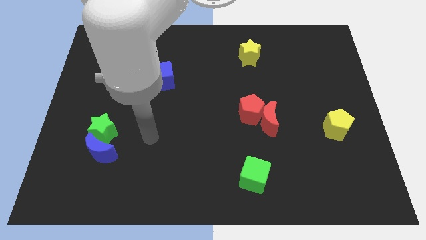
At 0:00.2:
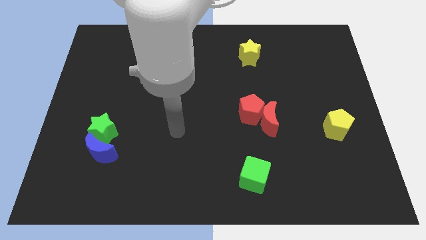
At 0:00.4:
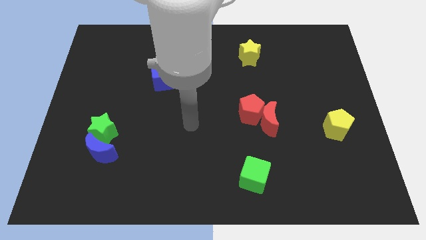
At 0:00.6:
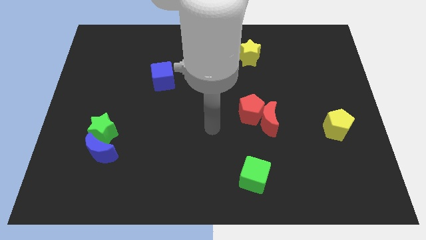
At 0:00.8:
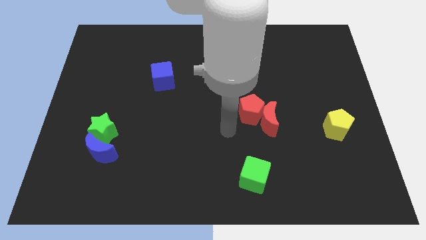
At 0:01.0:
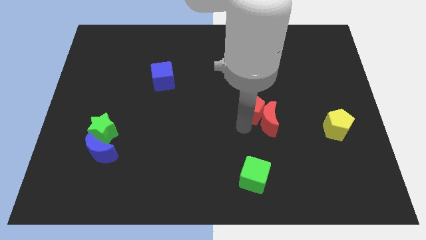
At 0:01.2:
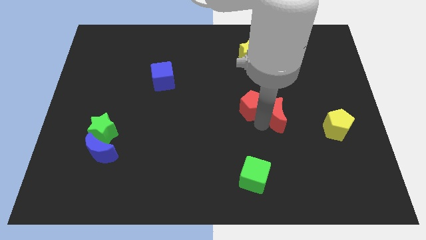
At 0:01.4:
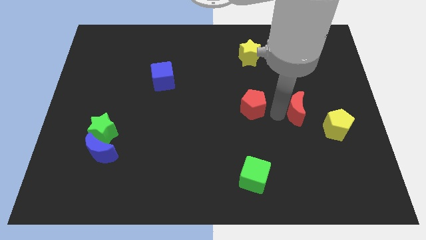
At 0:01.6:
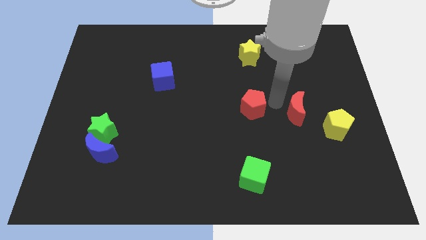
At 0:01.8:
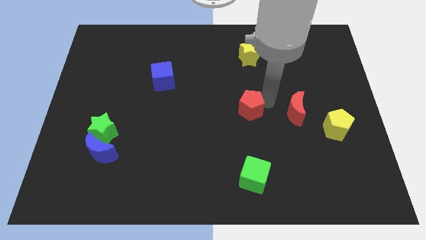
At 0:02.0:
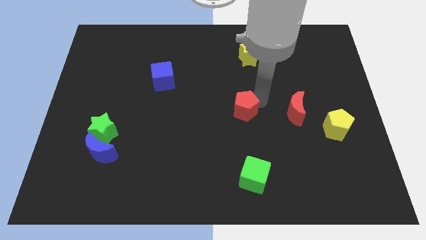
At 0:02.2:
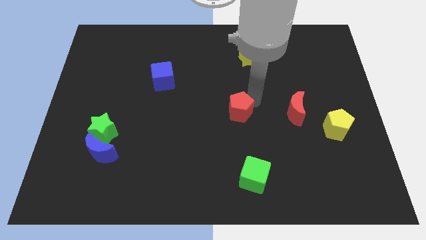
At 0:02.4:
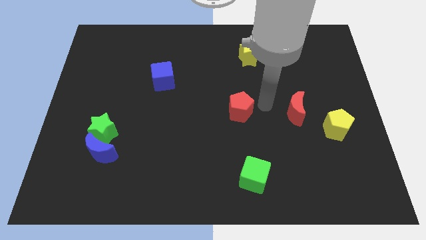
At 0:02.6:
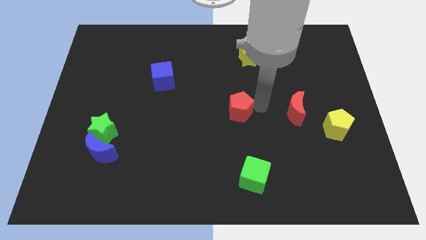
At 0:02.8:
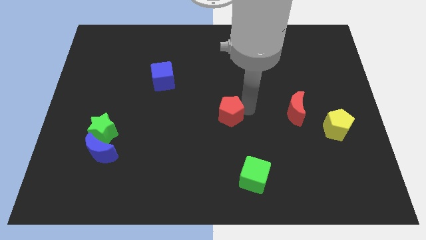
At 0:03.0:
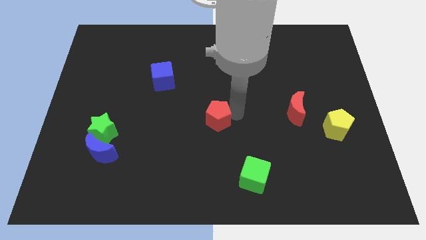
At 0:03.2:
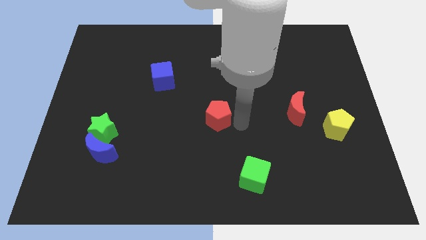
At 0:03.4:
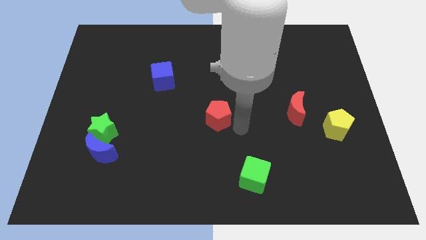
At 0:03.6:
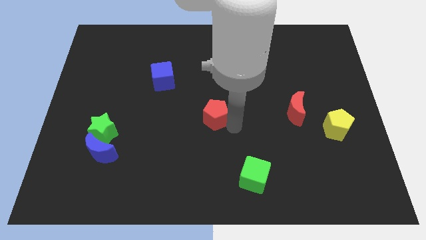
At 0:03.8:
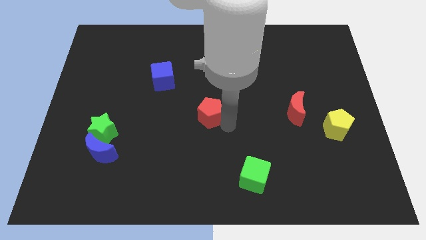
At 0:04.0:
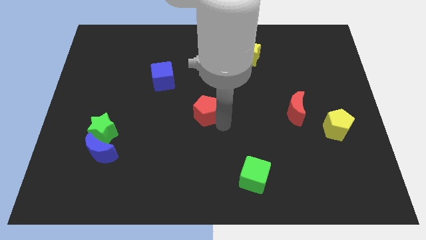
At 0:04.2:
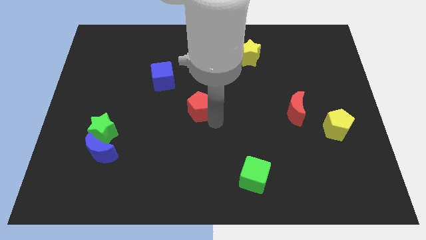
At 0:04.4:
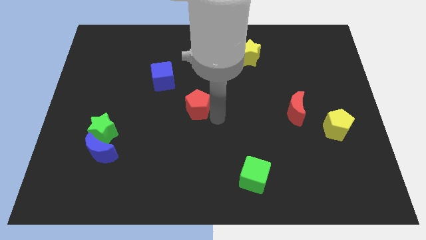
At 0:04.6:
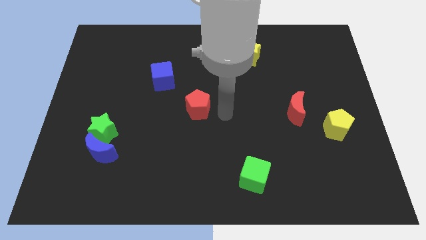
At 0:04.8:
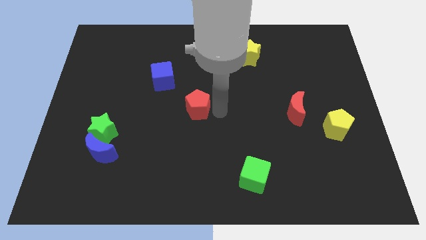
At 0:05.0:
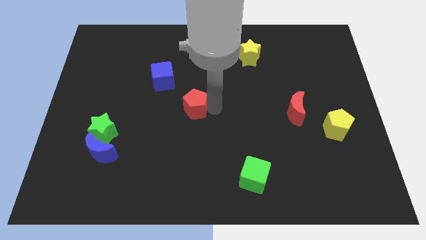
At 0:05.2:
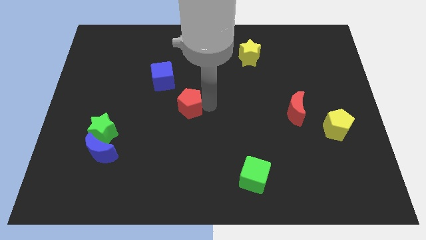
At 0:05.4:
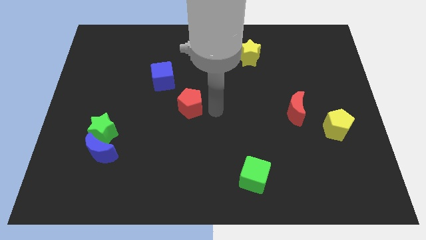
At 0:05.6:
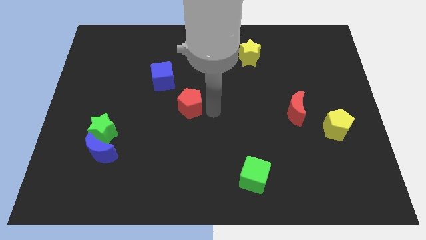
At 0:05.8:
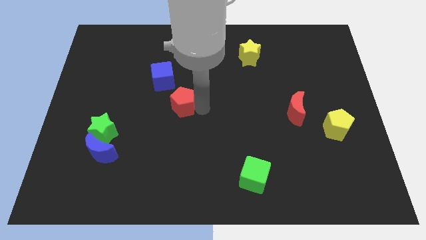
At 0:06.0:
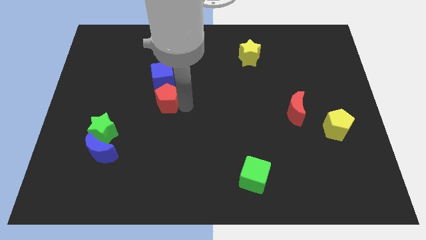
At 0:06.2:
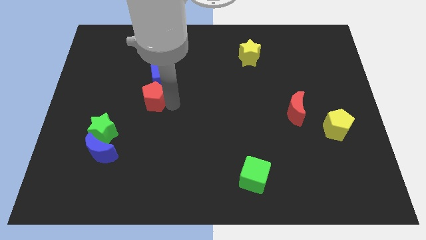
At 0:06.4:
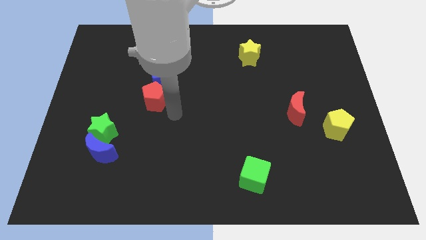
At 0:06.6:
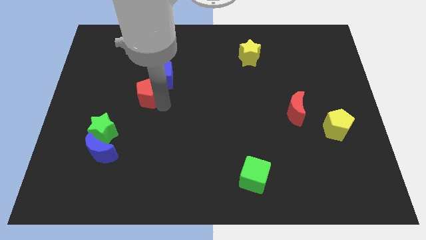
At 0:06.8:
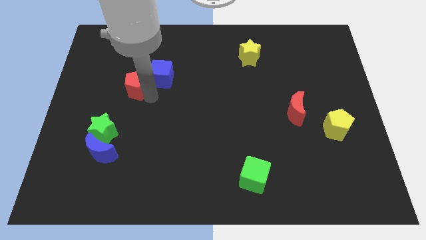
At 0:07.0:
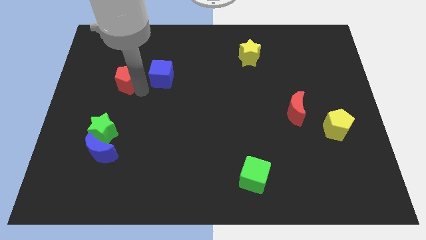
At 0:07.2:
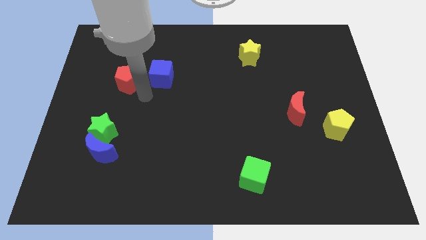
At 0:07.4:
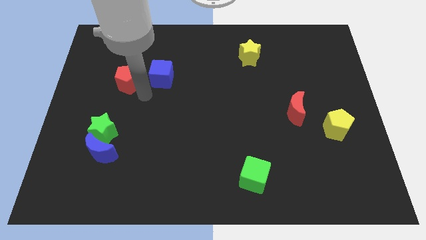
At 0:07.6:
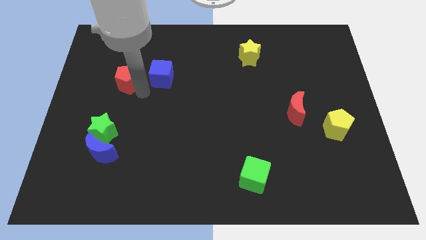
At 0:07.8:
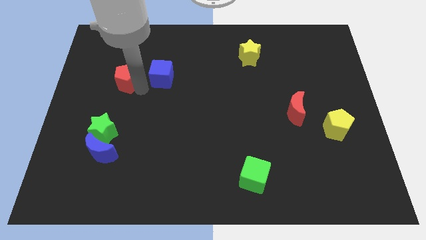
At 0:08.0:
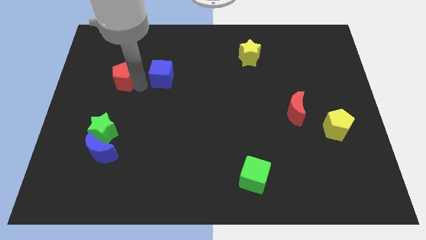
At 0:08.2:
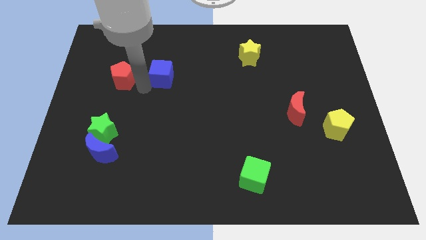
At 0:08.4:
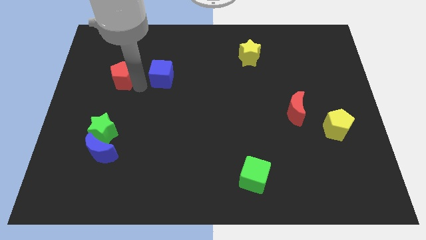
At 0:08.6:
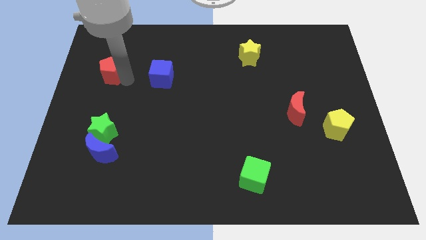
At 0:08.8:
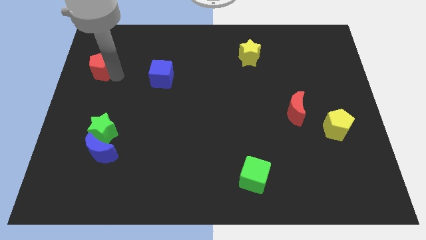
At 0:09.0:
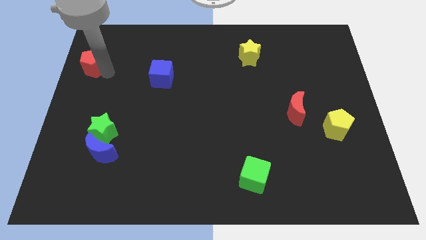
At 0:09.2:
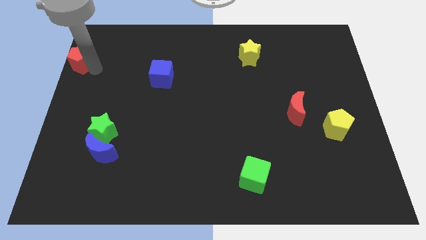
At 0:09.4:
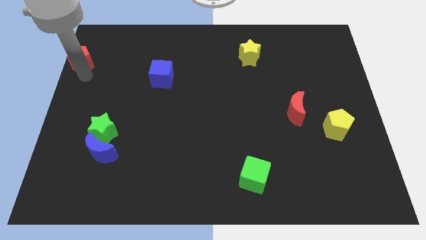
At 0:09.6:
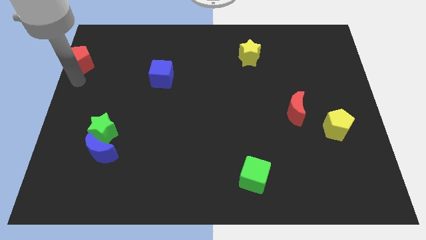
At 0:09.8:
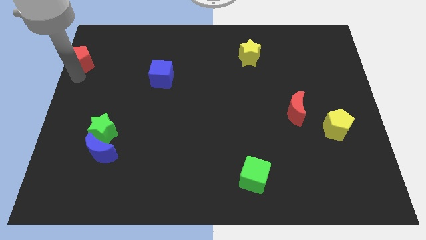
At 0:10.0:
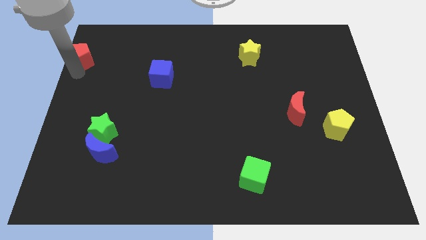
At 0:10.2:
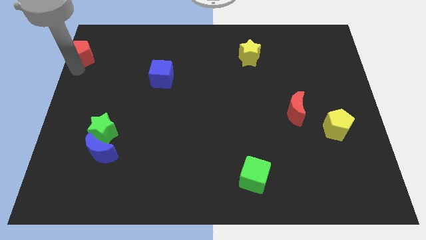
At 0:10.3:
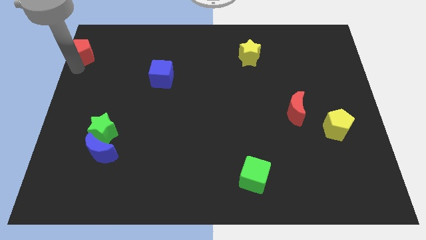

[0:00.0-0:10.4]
slide the red pentagon to the top left corner

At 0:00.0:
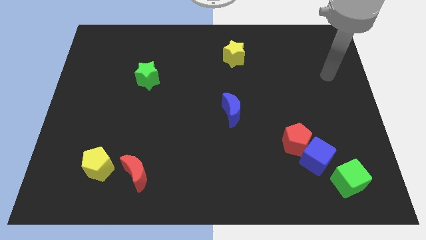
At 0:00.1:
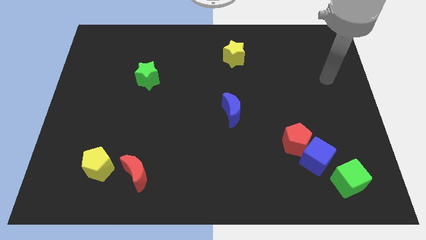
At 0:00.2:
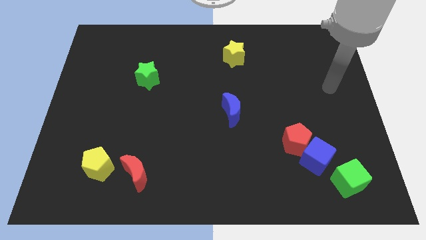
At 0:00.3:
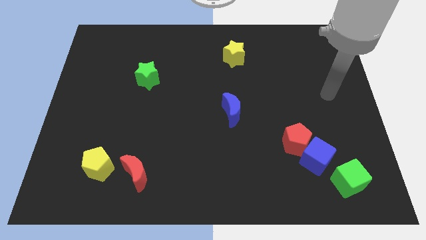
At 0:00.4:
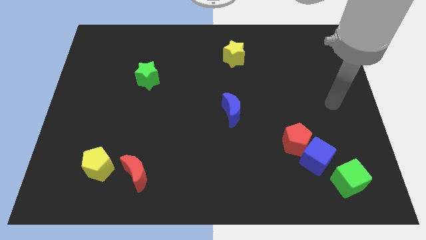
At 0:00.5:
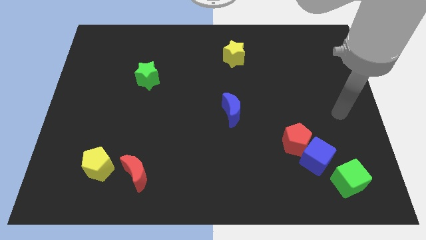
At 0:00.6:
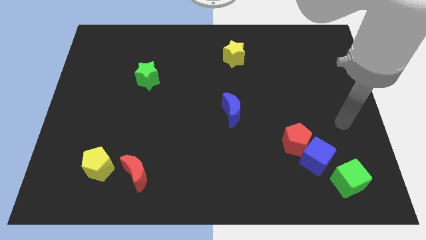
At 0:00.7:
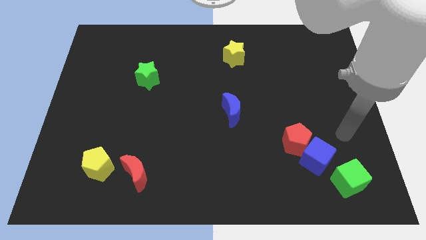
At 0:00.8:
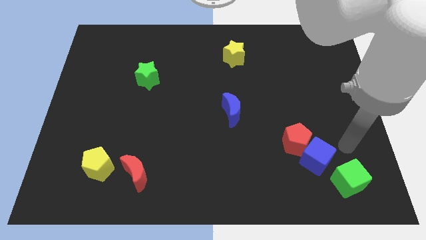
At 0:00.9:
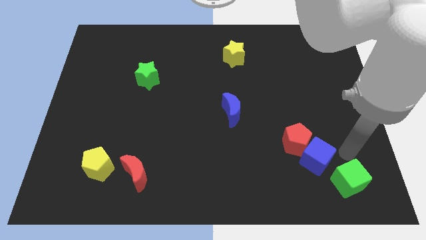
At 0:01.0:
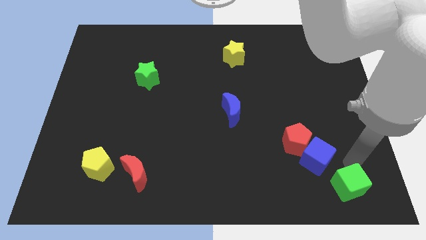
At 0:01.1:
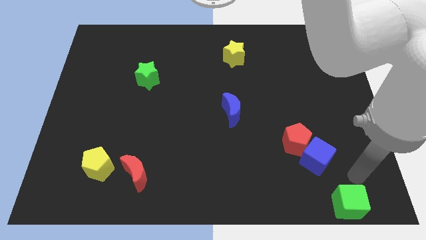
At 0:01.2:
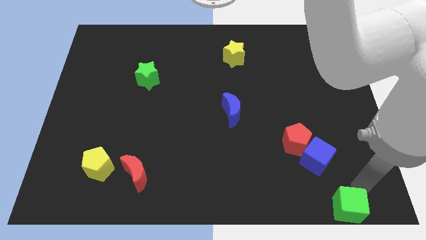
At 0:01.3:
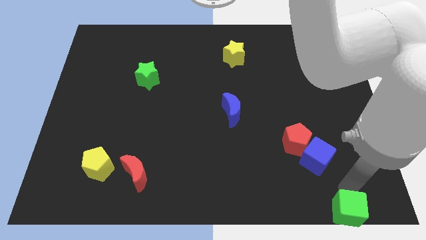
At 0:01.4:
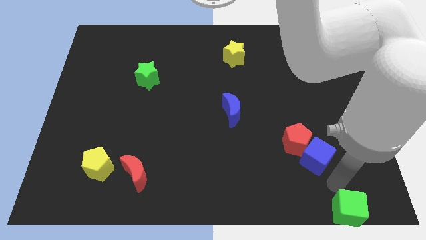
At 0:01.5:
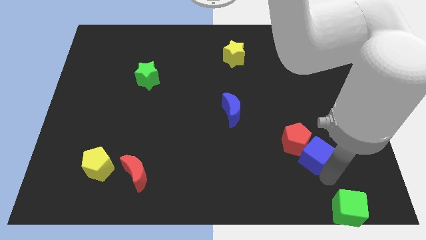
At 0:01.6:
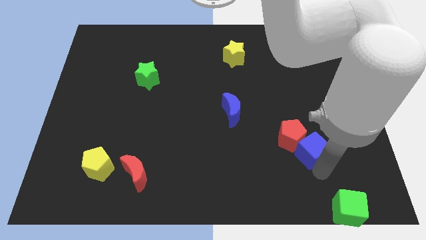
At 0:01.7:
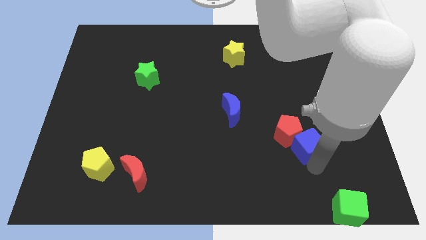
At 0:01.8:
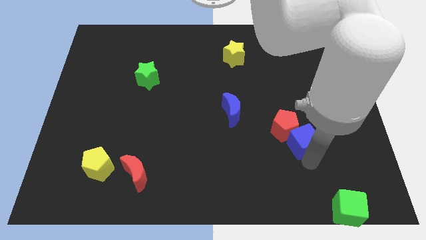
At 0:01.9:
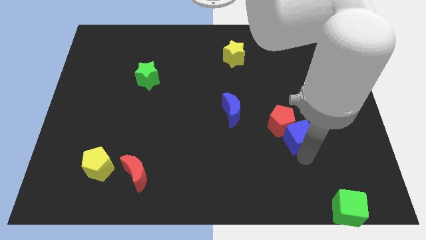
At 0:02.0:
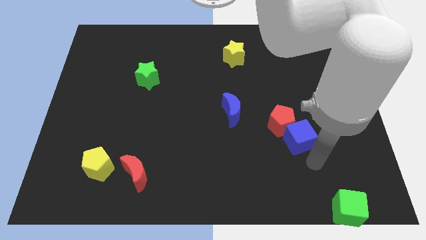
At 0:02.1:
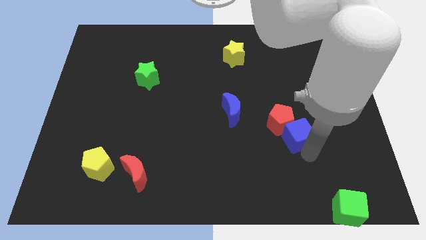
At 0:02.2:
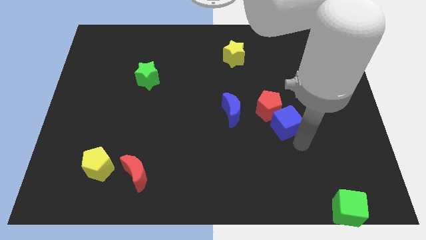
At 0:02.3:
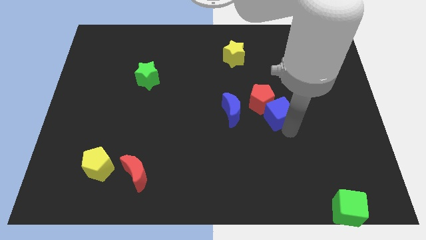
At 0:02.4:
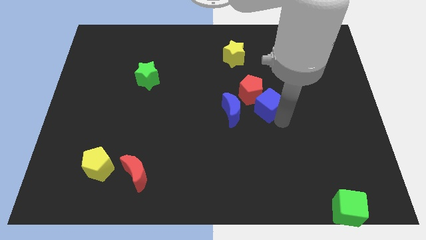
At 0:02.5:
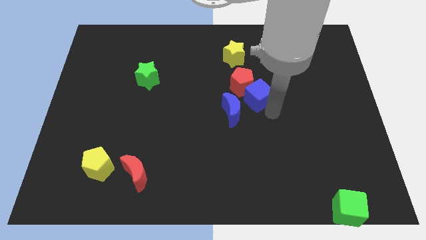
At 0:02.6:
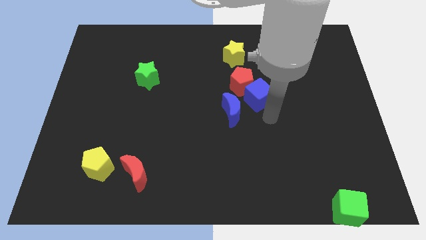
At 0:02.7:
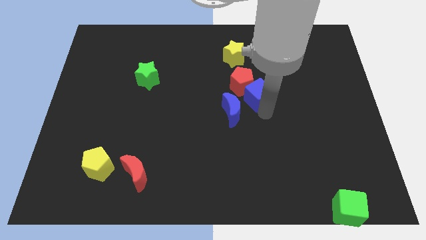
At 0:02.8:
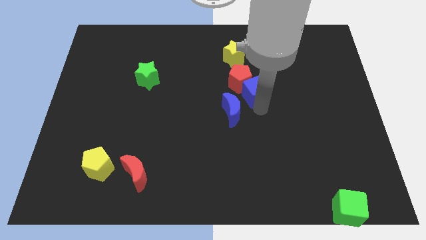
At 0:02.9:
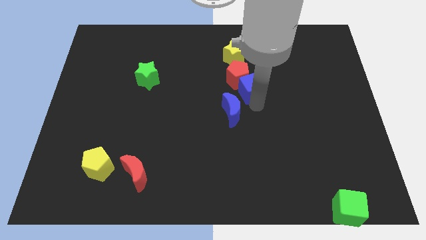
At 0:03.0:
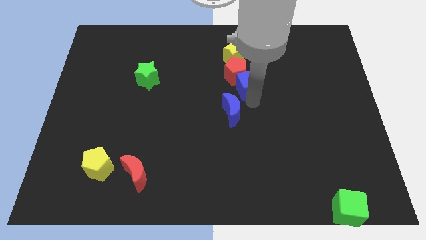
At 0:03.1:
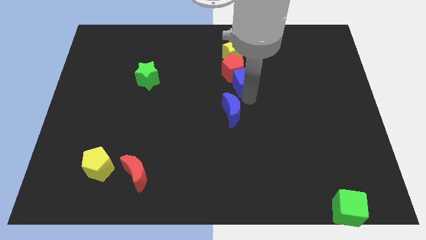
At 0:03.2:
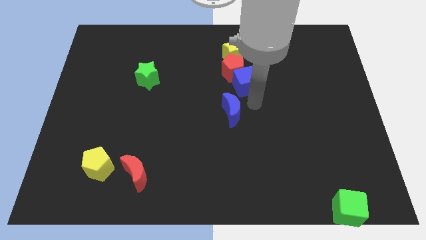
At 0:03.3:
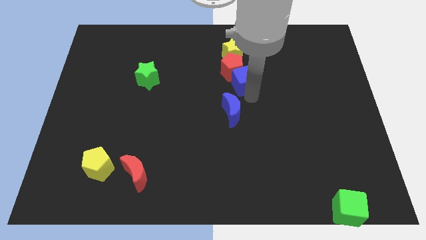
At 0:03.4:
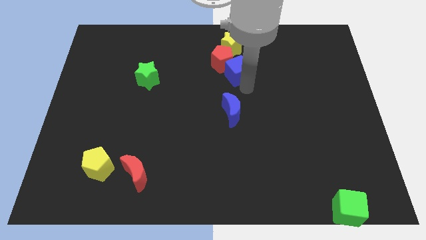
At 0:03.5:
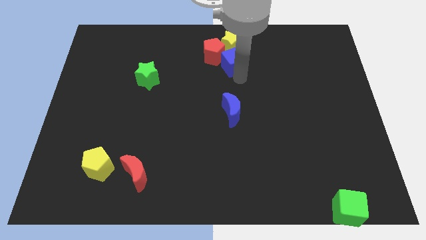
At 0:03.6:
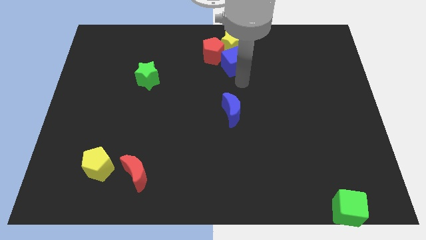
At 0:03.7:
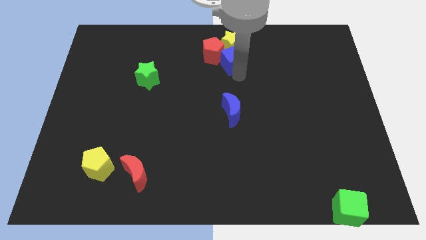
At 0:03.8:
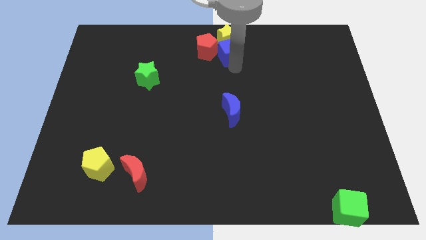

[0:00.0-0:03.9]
put the blue cube to the top
